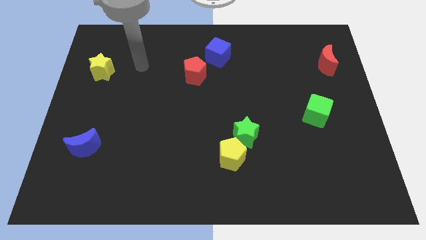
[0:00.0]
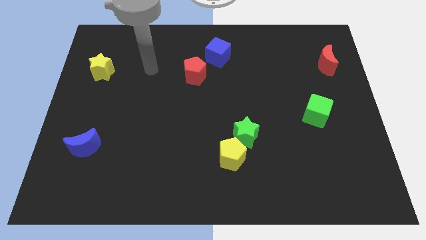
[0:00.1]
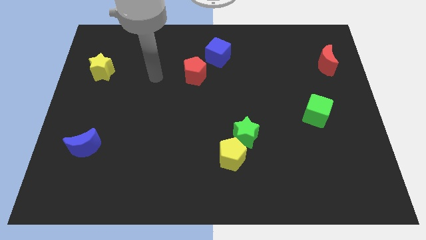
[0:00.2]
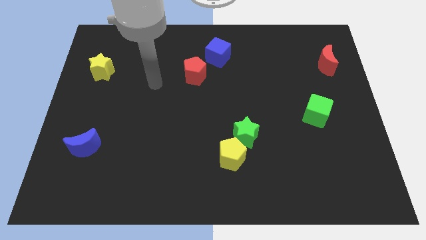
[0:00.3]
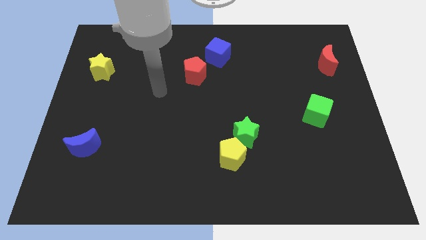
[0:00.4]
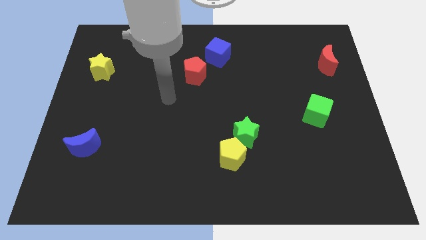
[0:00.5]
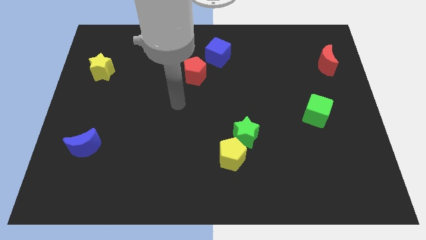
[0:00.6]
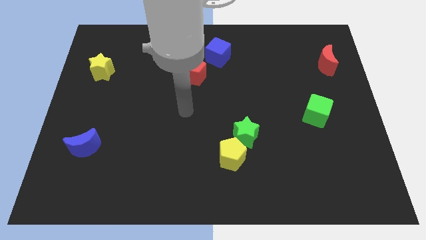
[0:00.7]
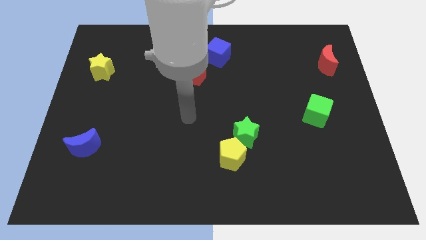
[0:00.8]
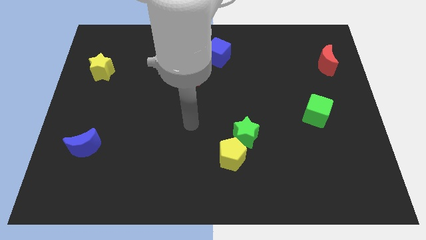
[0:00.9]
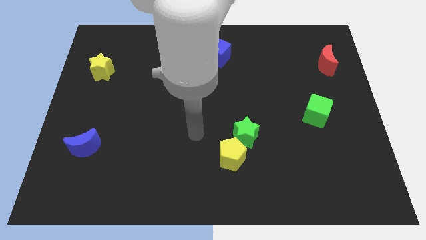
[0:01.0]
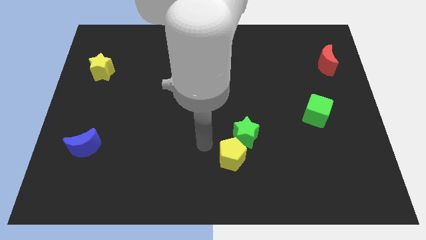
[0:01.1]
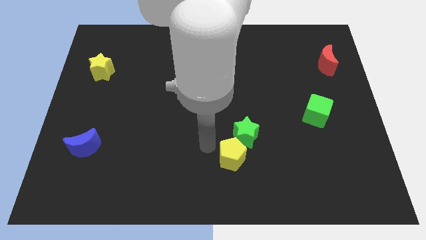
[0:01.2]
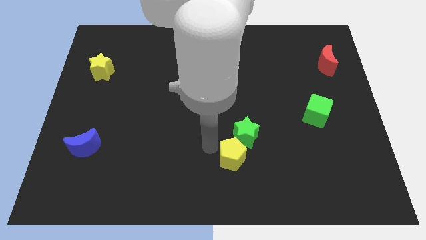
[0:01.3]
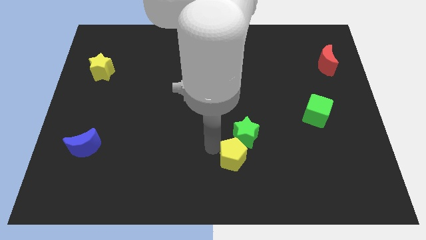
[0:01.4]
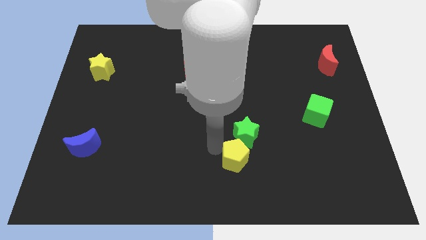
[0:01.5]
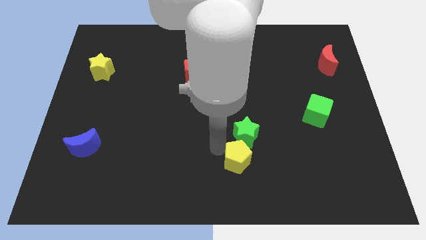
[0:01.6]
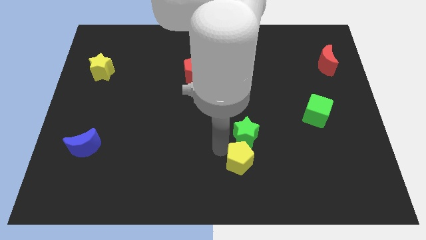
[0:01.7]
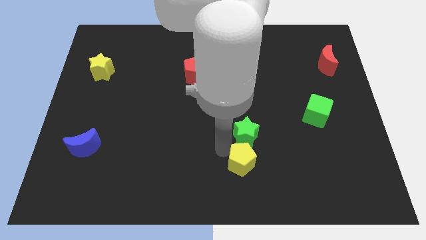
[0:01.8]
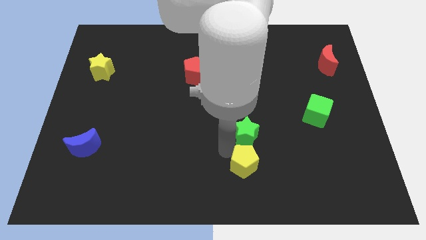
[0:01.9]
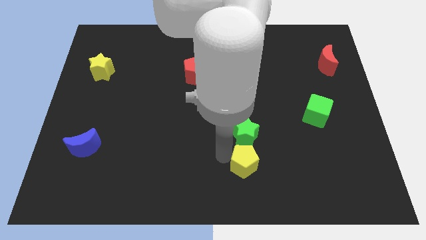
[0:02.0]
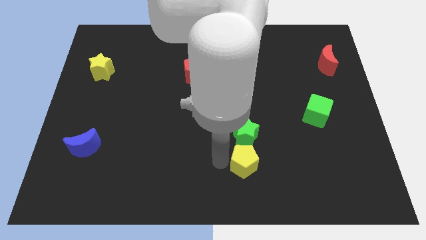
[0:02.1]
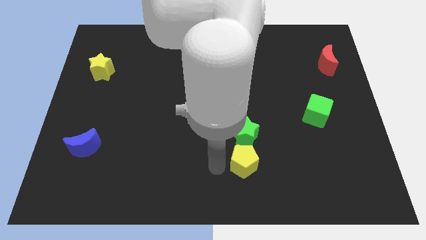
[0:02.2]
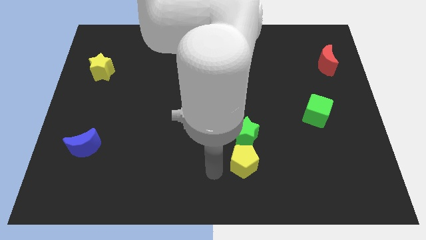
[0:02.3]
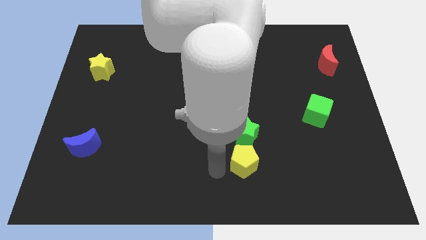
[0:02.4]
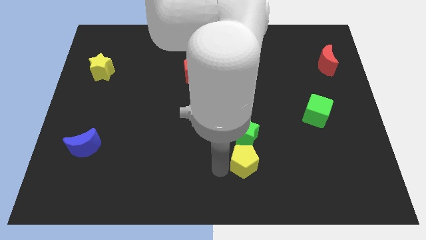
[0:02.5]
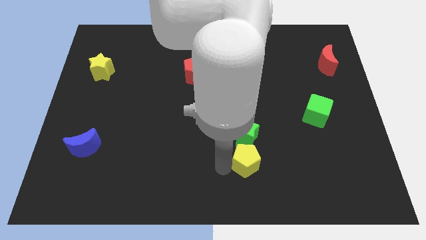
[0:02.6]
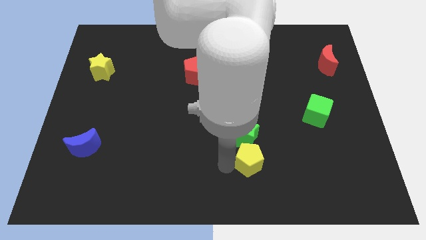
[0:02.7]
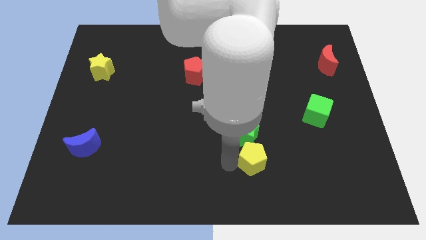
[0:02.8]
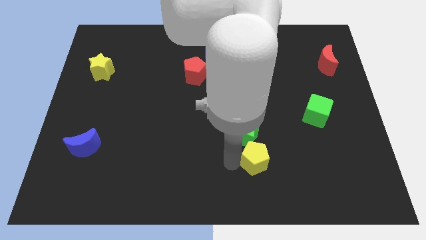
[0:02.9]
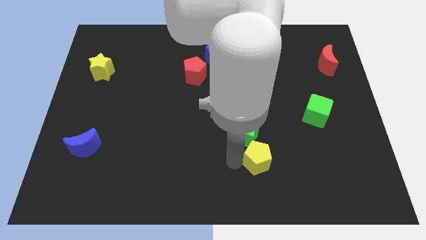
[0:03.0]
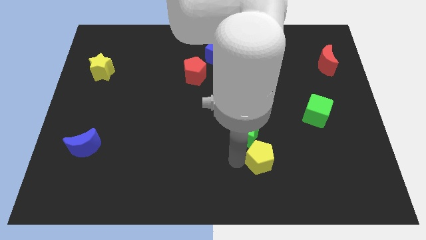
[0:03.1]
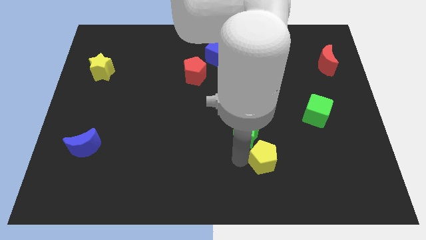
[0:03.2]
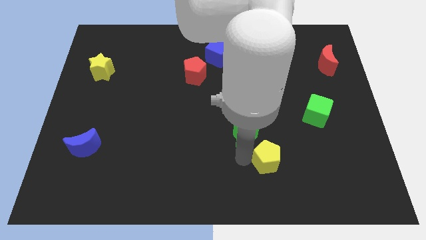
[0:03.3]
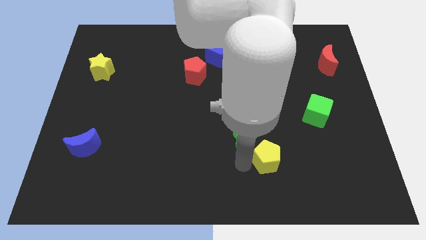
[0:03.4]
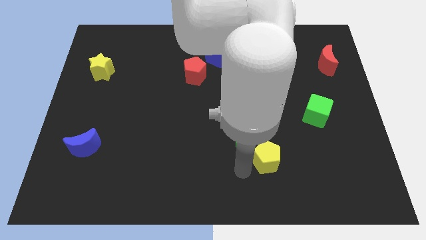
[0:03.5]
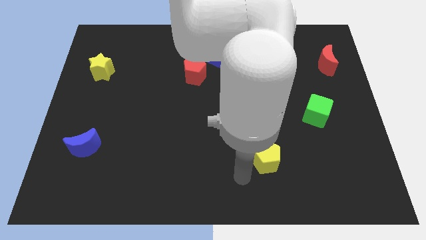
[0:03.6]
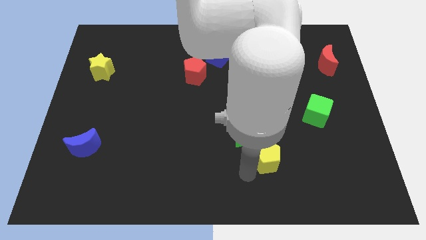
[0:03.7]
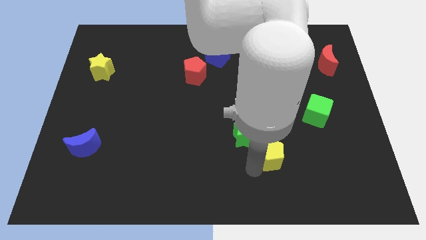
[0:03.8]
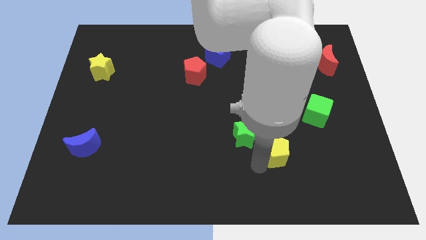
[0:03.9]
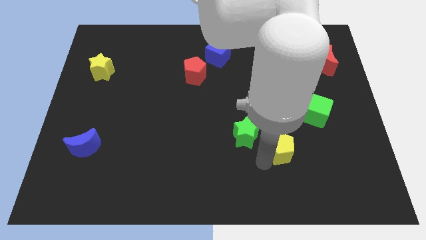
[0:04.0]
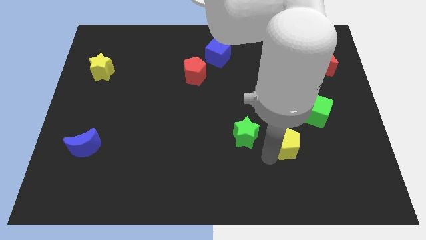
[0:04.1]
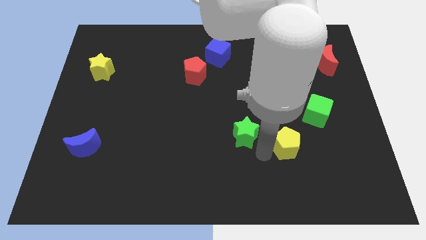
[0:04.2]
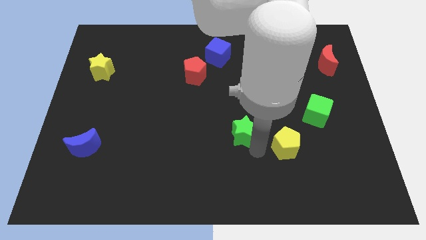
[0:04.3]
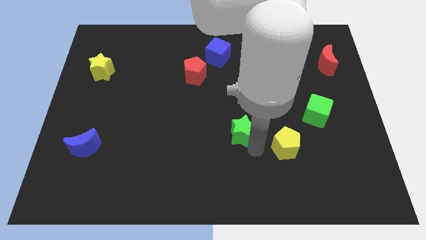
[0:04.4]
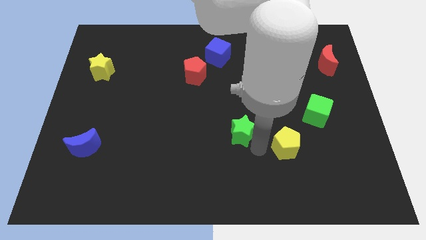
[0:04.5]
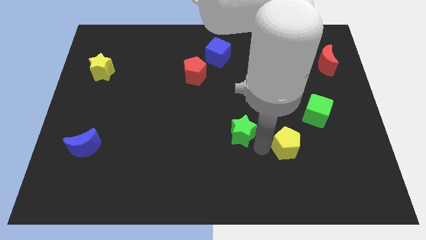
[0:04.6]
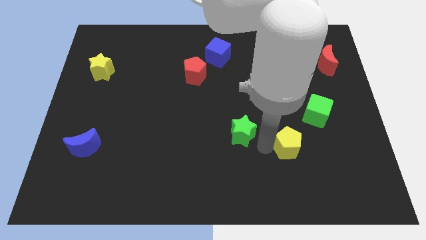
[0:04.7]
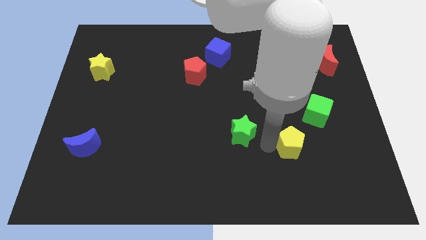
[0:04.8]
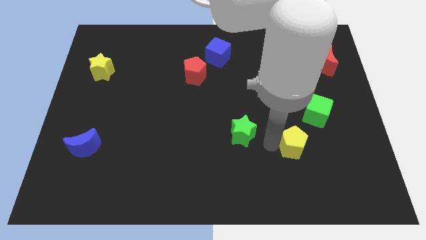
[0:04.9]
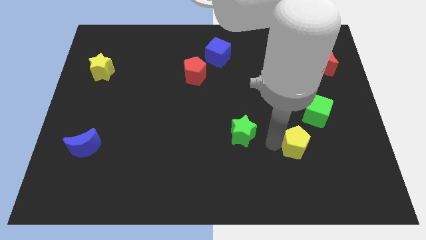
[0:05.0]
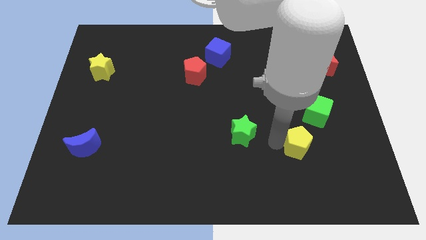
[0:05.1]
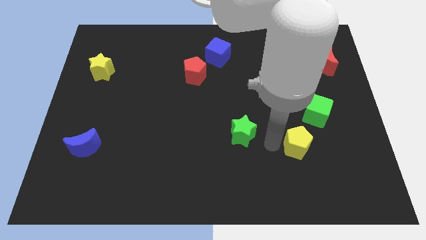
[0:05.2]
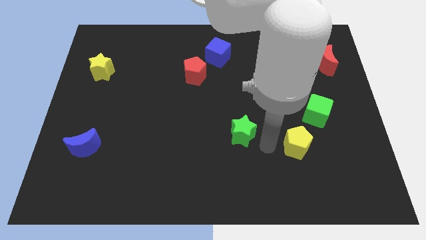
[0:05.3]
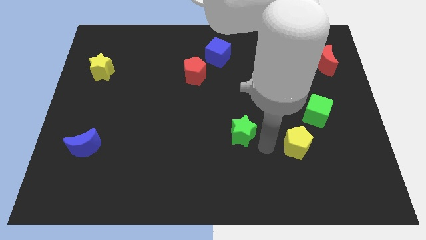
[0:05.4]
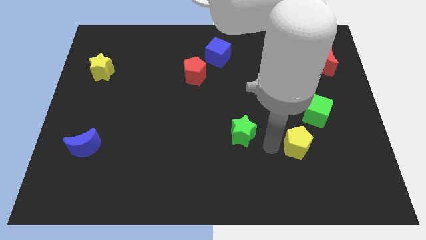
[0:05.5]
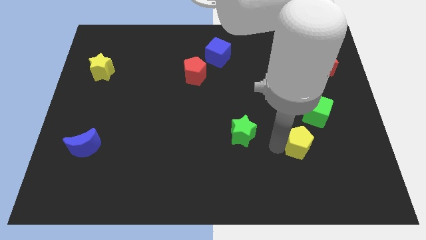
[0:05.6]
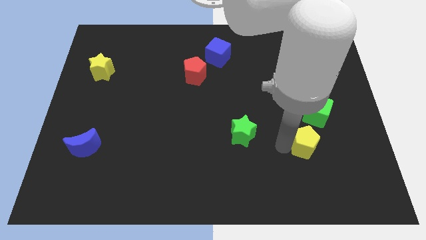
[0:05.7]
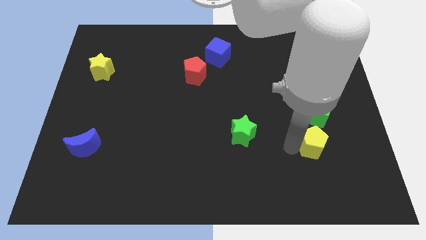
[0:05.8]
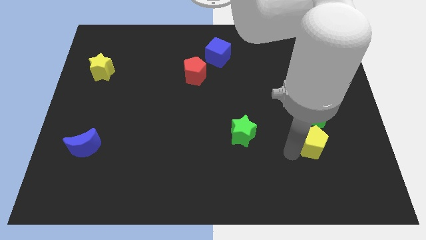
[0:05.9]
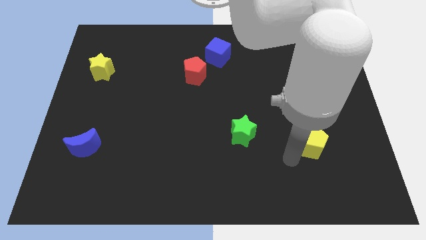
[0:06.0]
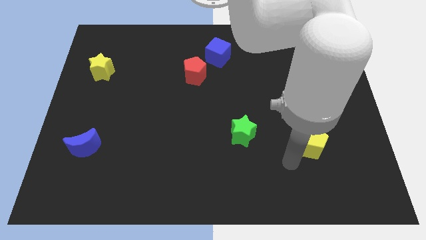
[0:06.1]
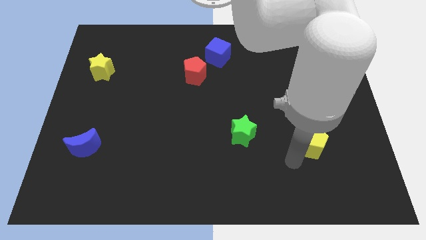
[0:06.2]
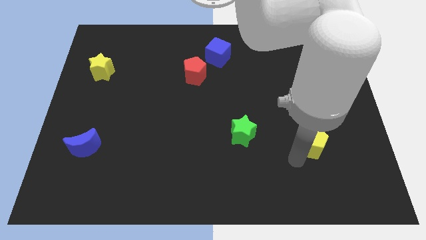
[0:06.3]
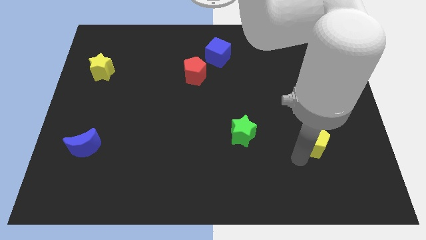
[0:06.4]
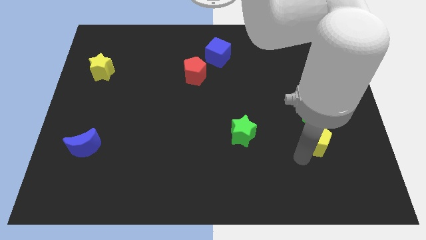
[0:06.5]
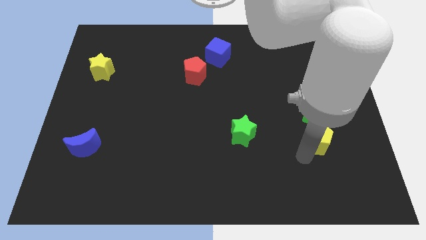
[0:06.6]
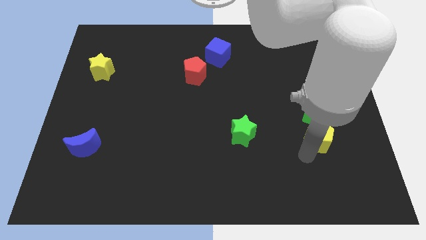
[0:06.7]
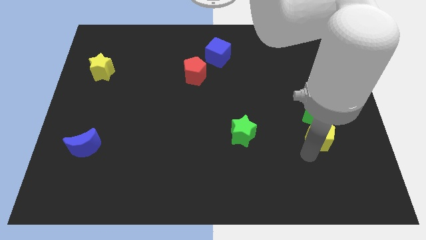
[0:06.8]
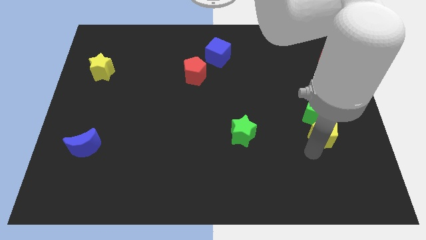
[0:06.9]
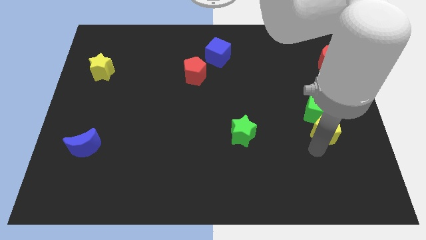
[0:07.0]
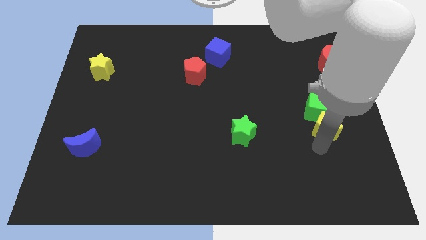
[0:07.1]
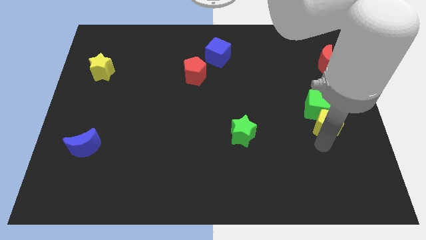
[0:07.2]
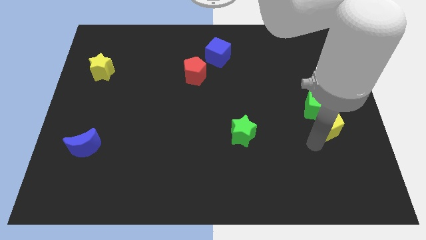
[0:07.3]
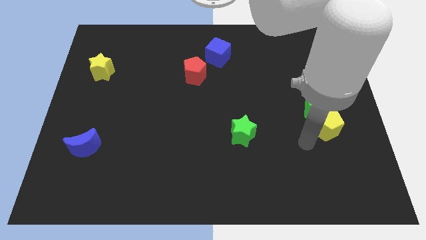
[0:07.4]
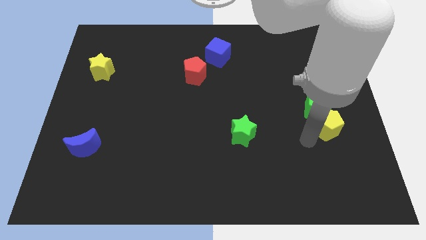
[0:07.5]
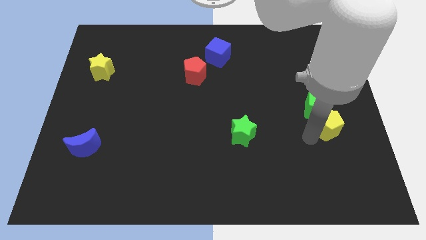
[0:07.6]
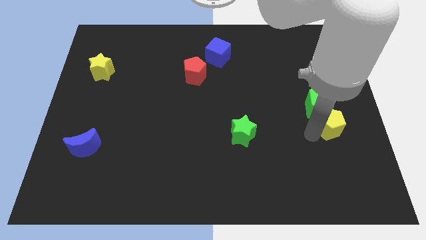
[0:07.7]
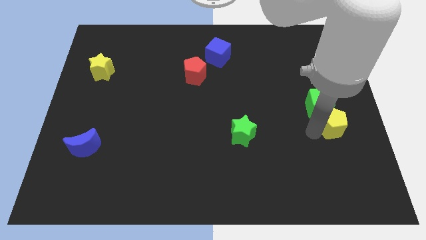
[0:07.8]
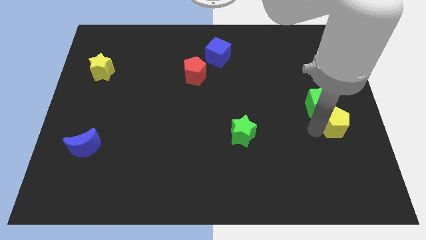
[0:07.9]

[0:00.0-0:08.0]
put the yellow pentagon to the right side of the board
